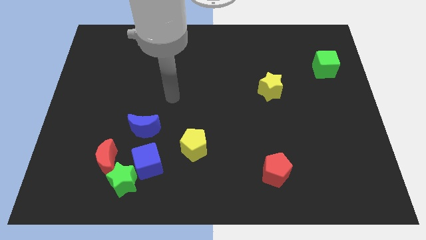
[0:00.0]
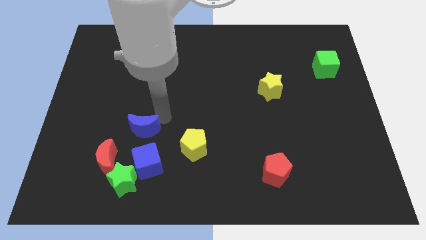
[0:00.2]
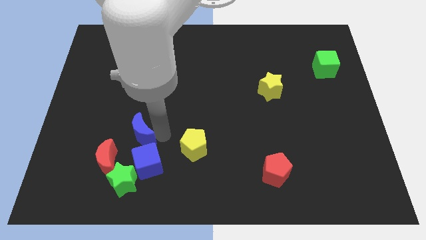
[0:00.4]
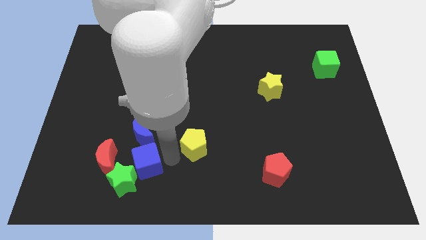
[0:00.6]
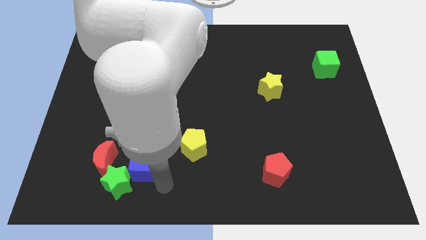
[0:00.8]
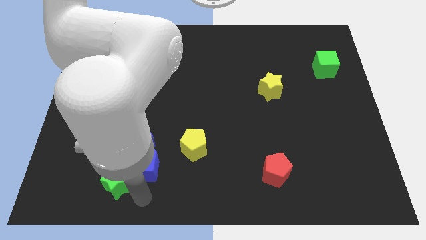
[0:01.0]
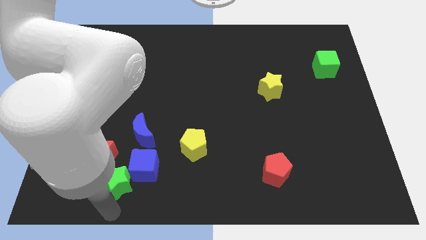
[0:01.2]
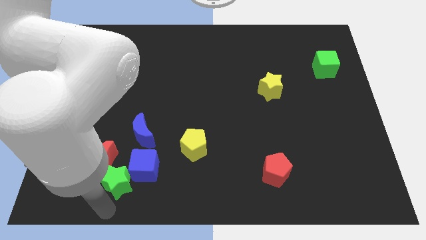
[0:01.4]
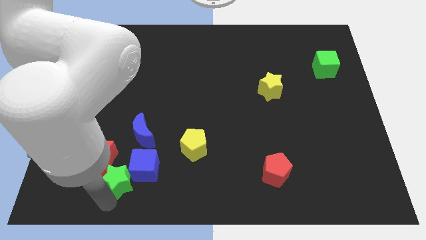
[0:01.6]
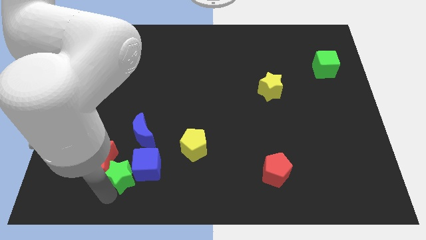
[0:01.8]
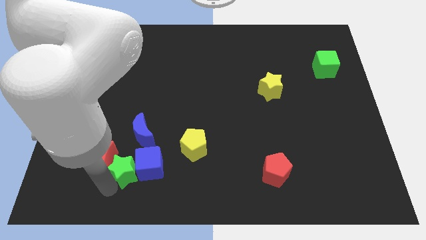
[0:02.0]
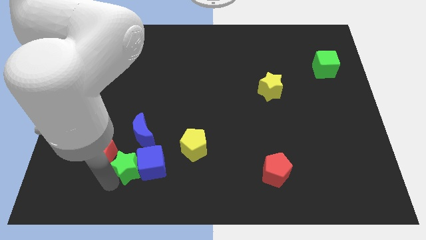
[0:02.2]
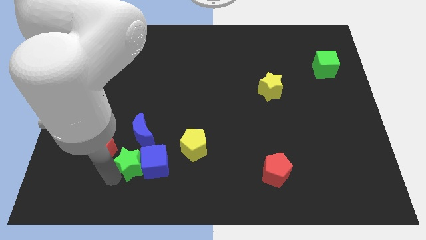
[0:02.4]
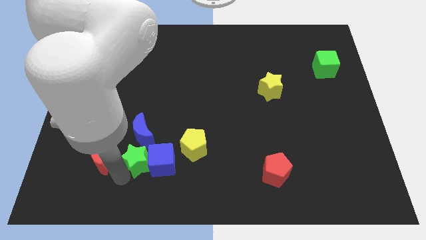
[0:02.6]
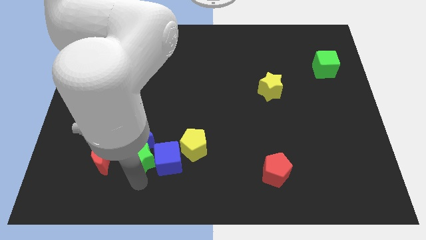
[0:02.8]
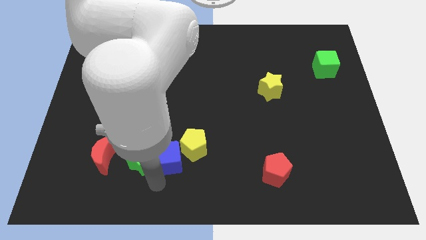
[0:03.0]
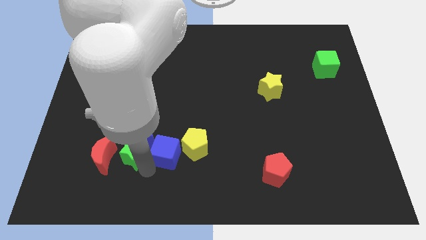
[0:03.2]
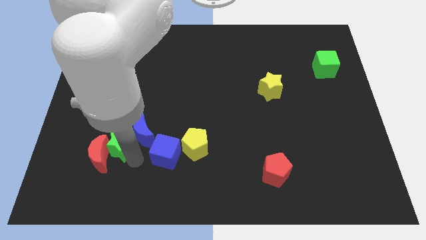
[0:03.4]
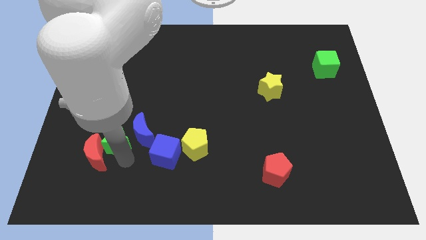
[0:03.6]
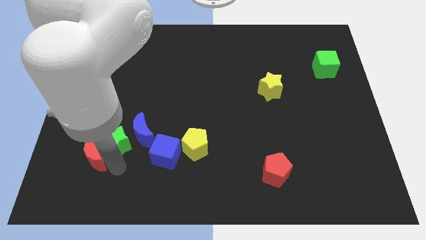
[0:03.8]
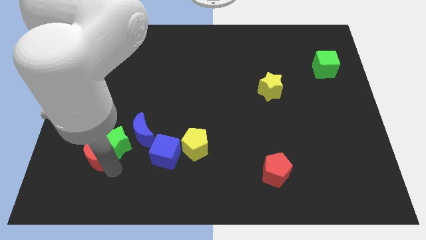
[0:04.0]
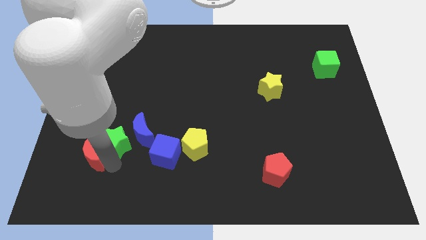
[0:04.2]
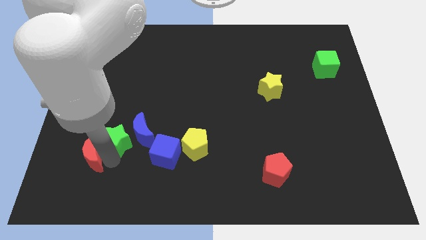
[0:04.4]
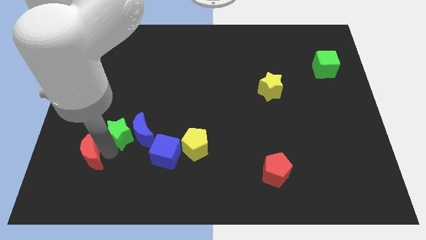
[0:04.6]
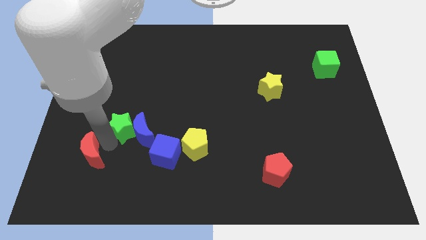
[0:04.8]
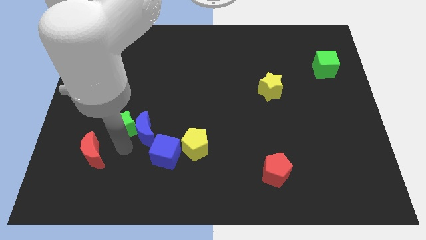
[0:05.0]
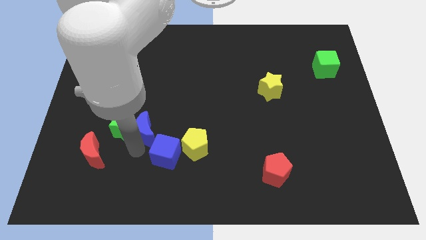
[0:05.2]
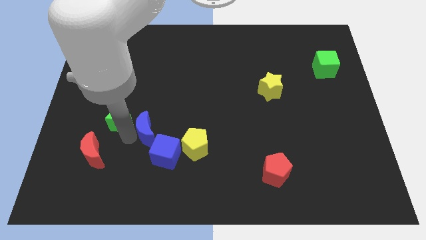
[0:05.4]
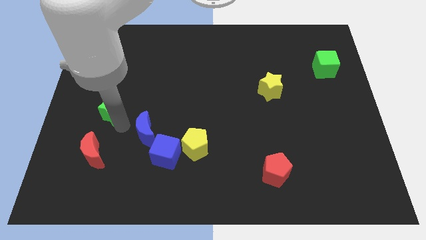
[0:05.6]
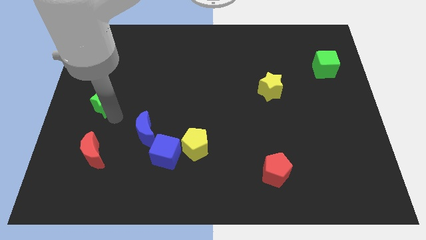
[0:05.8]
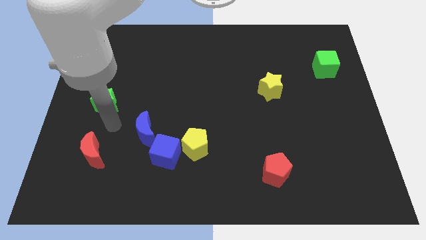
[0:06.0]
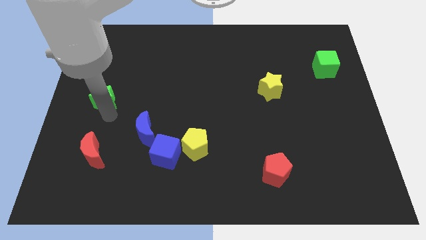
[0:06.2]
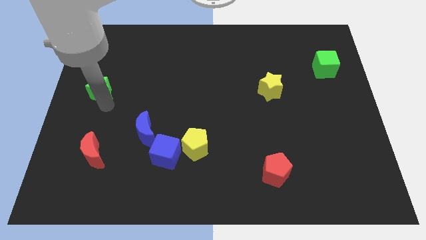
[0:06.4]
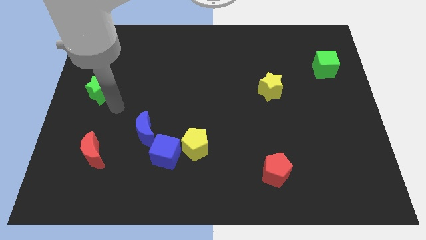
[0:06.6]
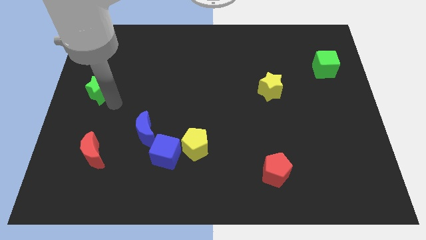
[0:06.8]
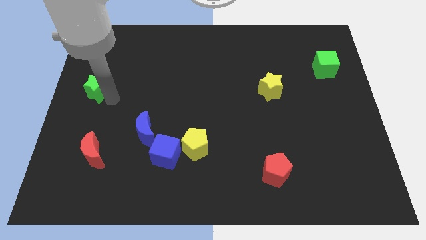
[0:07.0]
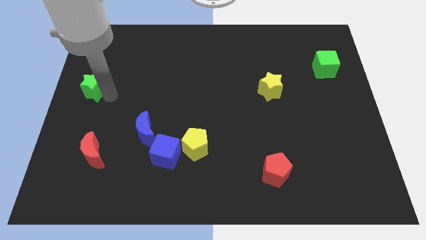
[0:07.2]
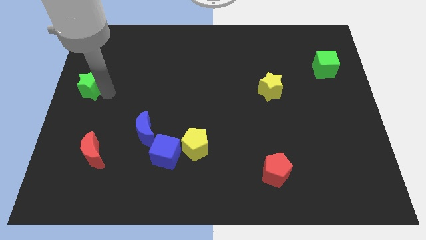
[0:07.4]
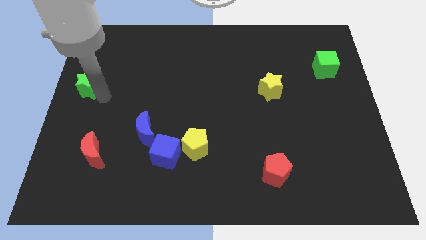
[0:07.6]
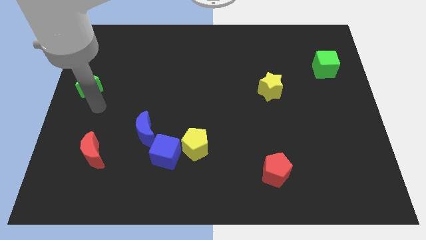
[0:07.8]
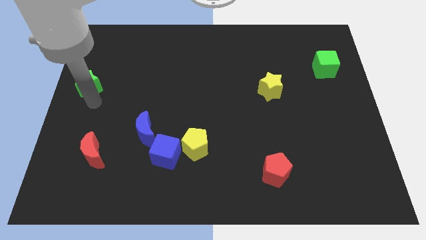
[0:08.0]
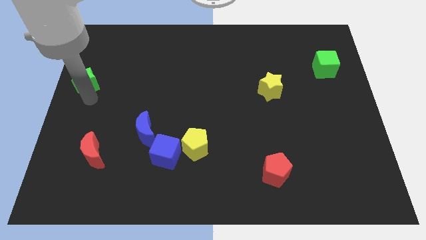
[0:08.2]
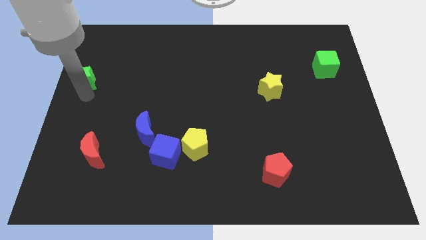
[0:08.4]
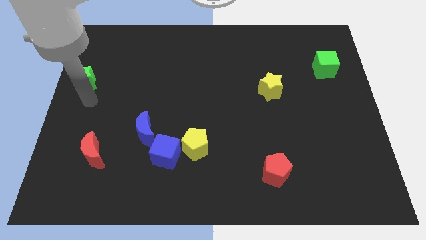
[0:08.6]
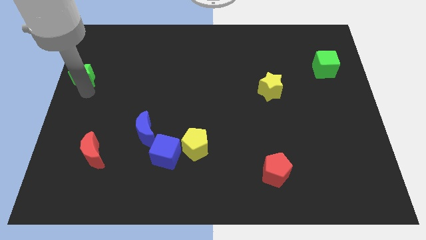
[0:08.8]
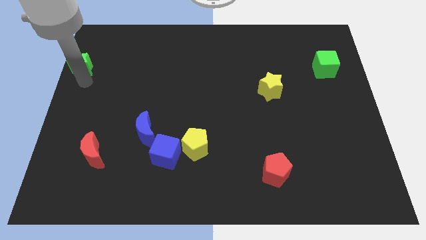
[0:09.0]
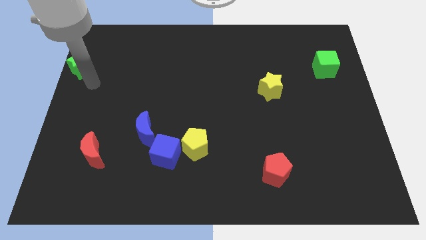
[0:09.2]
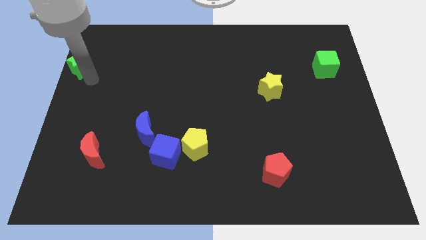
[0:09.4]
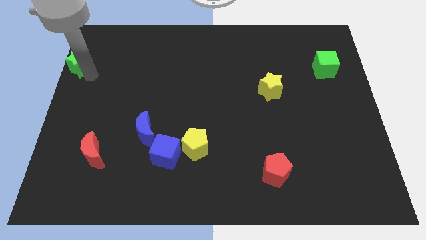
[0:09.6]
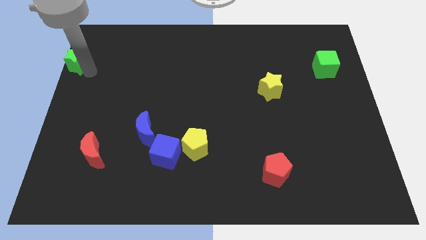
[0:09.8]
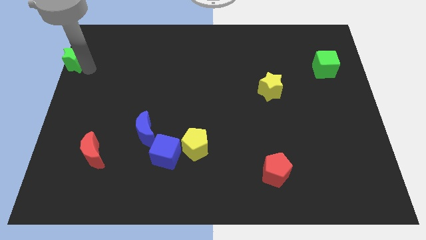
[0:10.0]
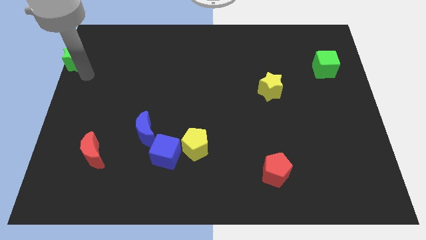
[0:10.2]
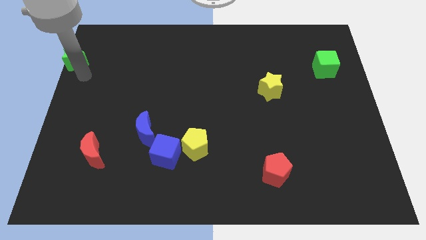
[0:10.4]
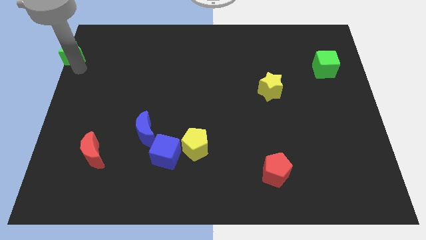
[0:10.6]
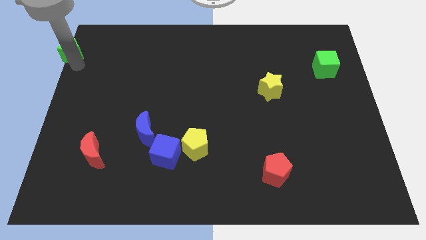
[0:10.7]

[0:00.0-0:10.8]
push the green star to the top left corner

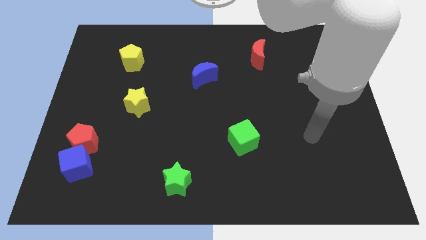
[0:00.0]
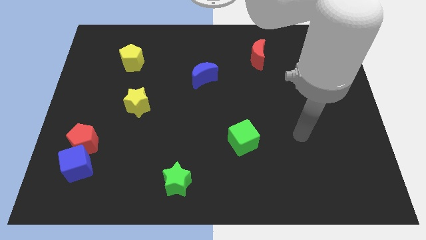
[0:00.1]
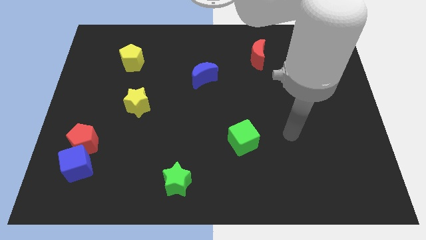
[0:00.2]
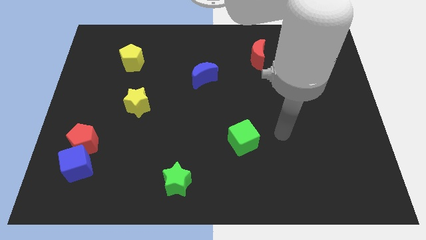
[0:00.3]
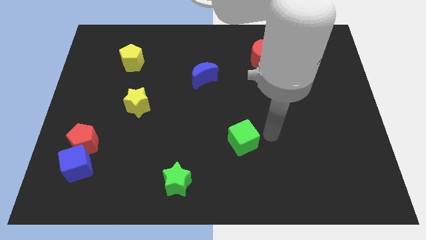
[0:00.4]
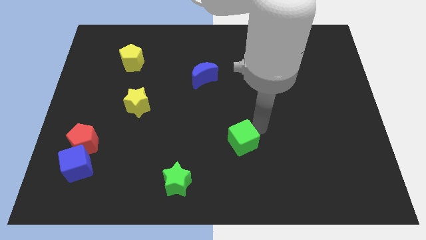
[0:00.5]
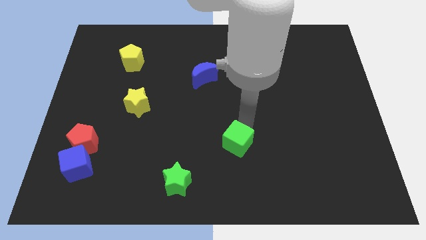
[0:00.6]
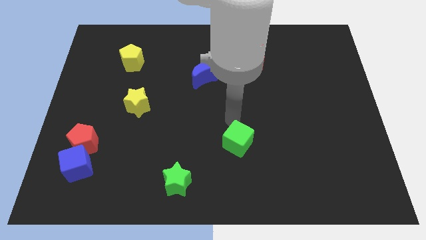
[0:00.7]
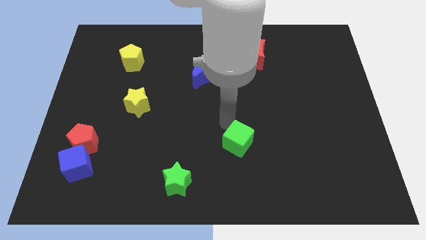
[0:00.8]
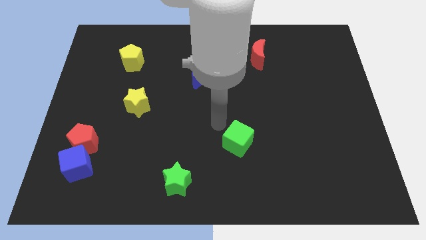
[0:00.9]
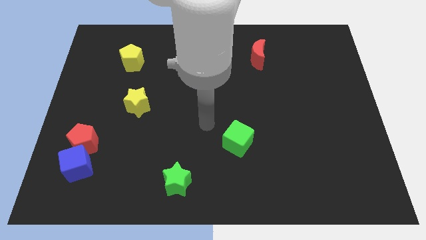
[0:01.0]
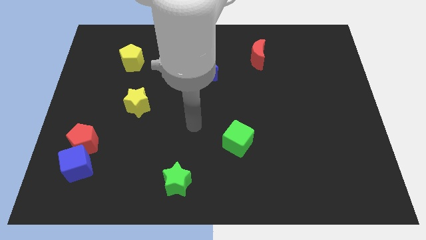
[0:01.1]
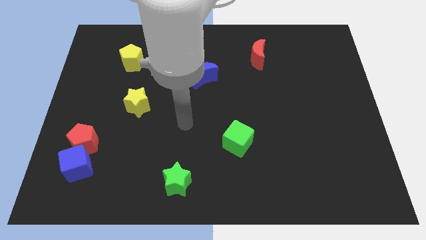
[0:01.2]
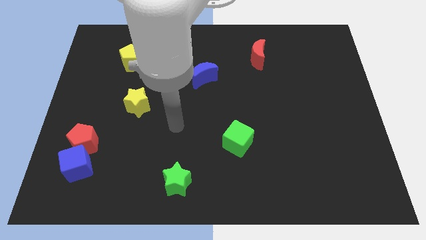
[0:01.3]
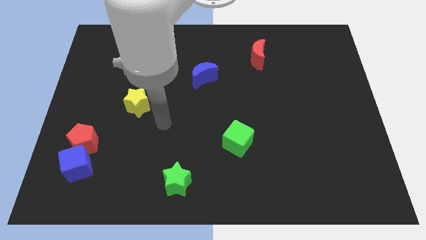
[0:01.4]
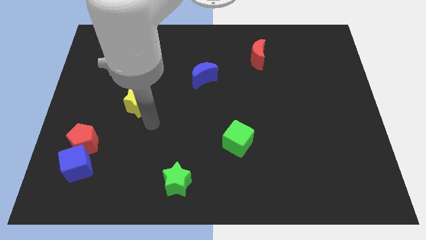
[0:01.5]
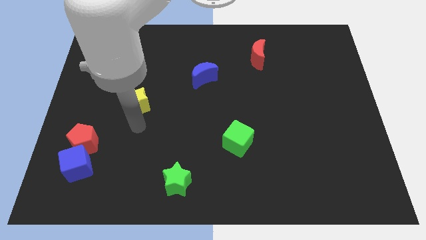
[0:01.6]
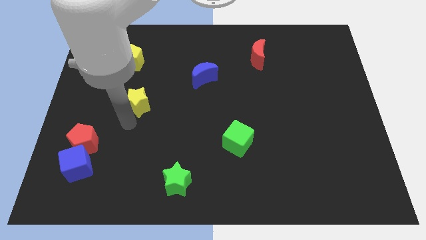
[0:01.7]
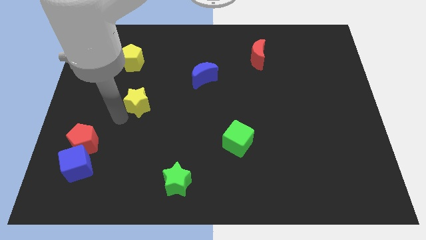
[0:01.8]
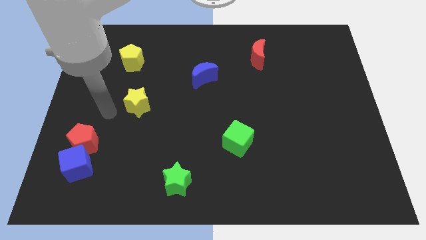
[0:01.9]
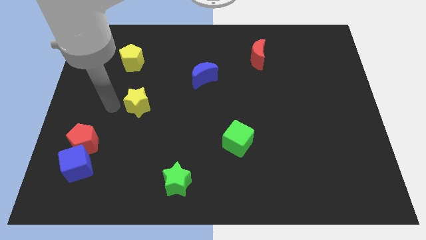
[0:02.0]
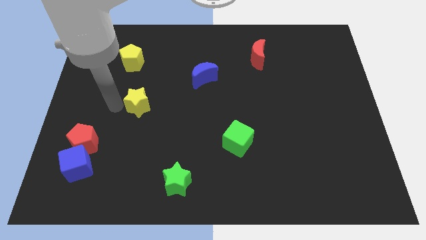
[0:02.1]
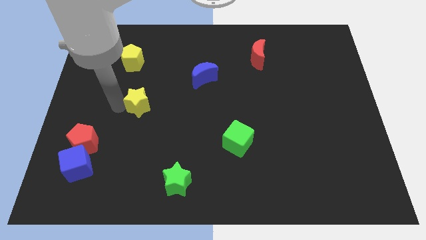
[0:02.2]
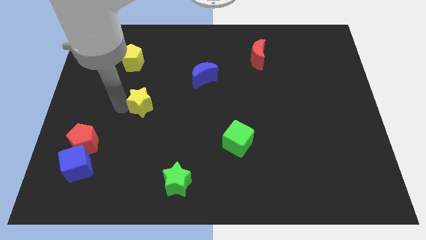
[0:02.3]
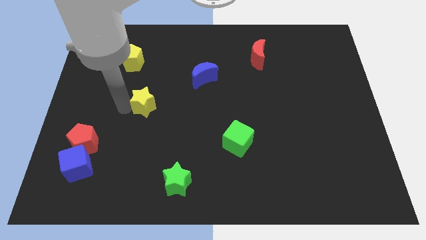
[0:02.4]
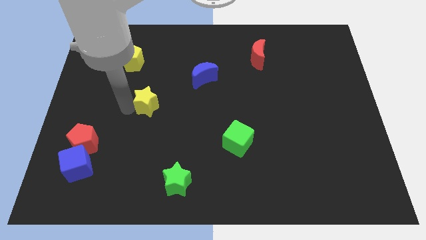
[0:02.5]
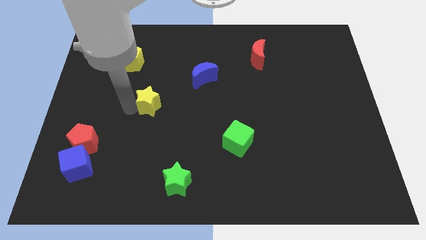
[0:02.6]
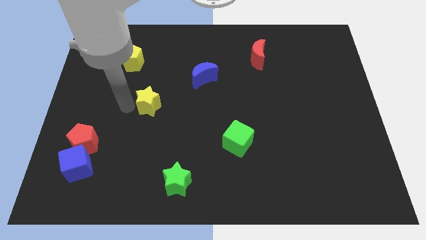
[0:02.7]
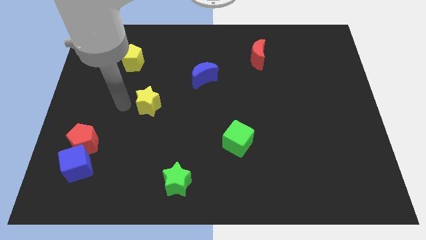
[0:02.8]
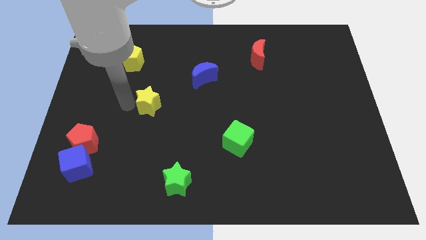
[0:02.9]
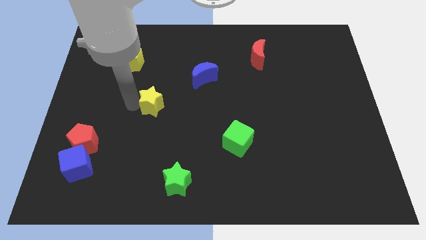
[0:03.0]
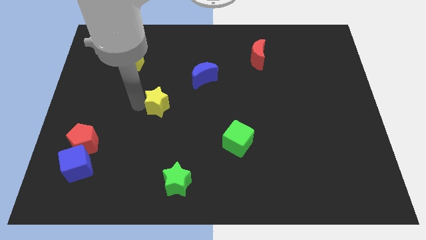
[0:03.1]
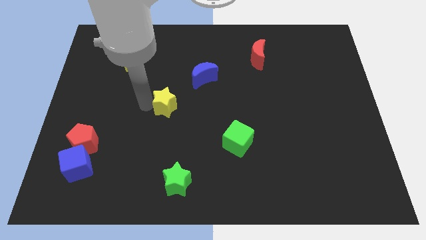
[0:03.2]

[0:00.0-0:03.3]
put the yellow star to the center
